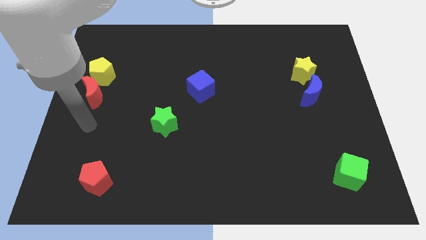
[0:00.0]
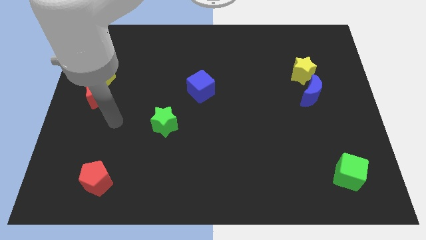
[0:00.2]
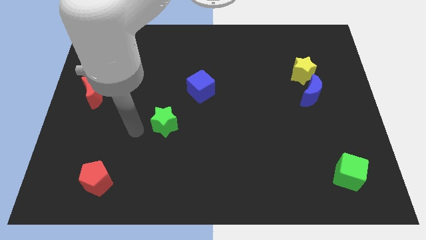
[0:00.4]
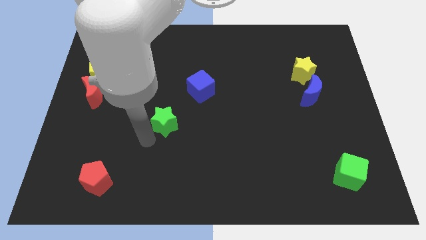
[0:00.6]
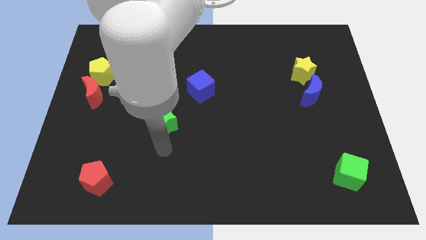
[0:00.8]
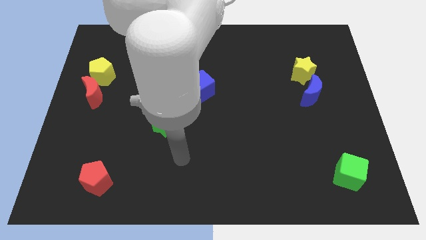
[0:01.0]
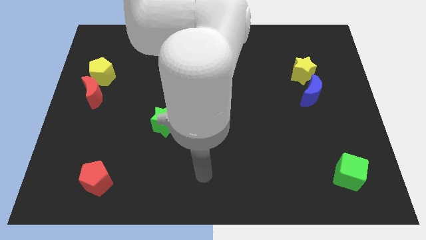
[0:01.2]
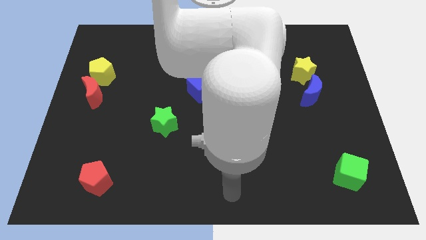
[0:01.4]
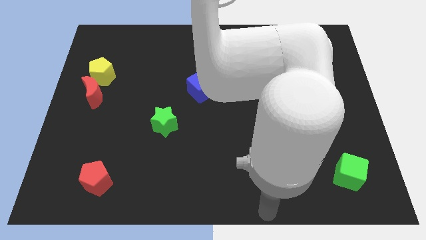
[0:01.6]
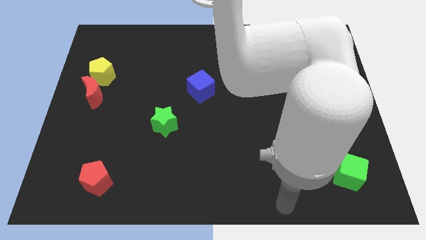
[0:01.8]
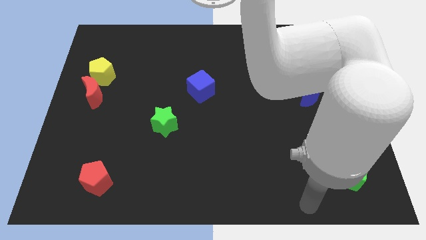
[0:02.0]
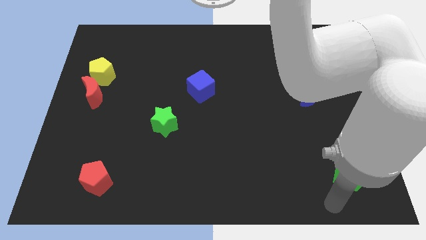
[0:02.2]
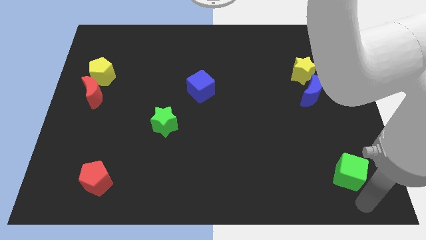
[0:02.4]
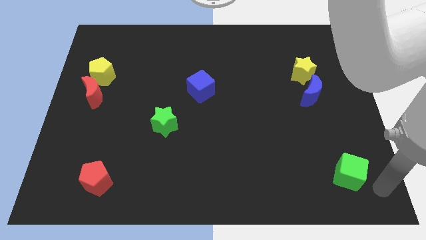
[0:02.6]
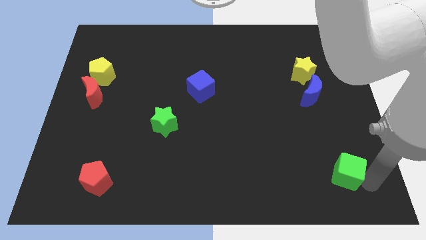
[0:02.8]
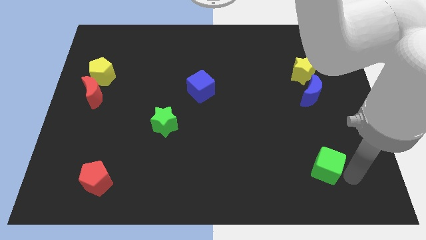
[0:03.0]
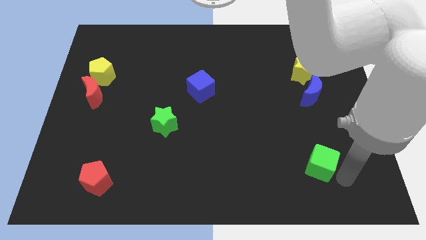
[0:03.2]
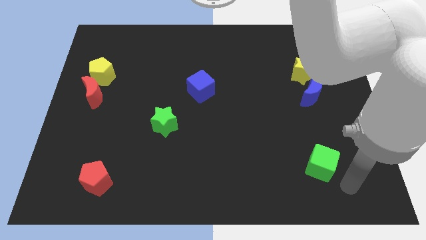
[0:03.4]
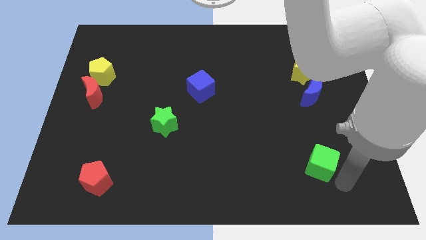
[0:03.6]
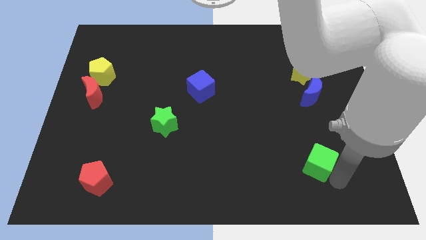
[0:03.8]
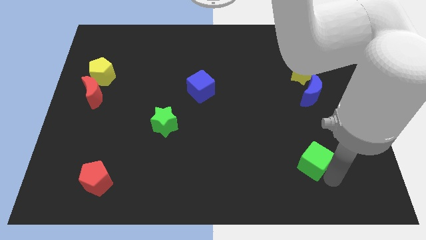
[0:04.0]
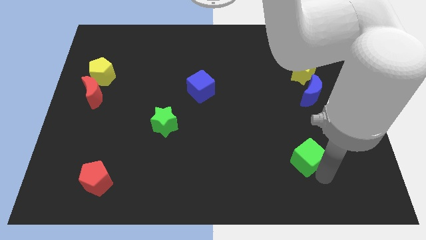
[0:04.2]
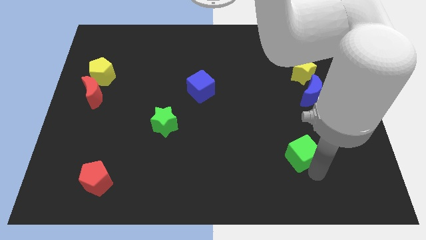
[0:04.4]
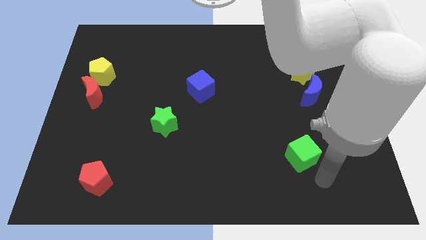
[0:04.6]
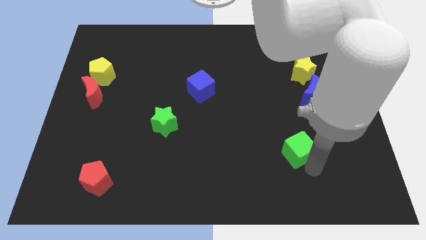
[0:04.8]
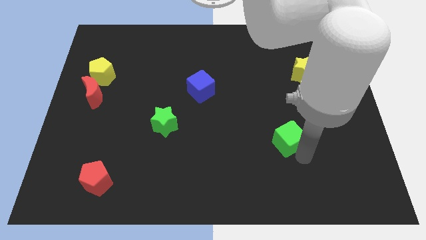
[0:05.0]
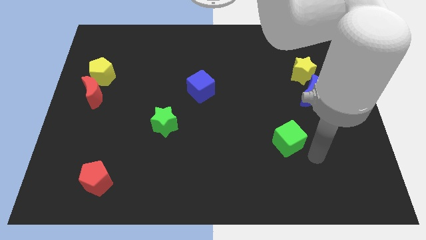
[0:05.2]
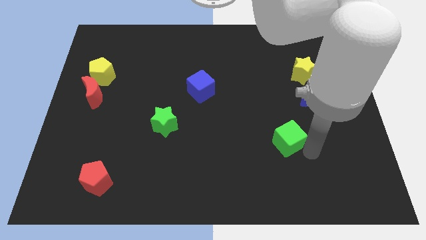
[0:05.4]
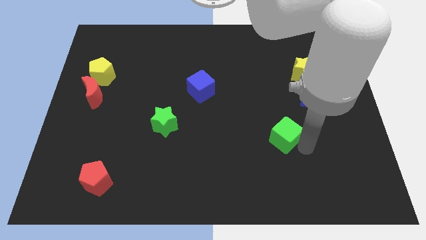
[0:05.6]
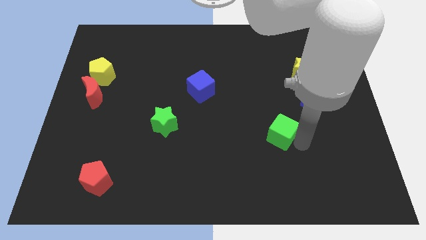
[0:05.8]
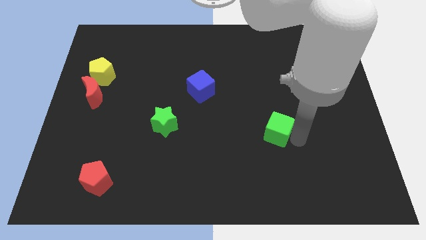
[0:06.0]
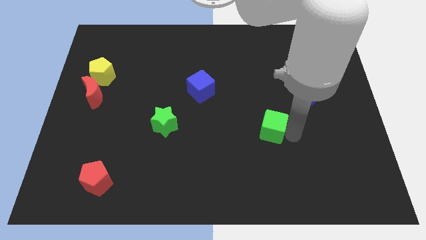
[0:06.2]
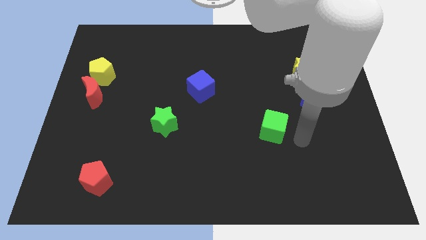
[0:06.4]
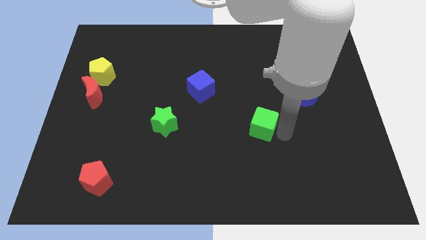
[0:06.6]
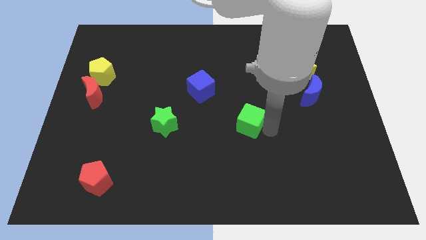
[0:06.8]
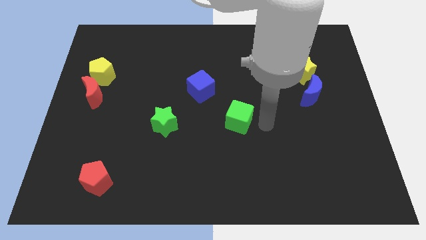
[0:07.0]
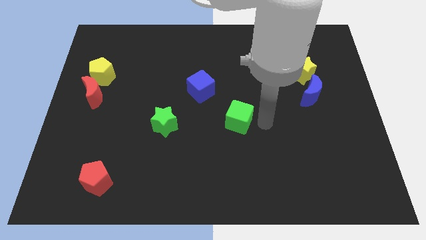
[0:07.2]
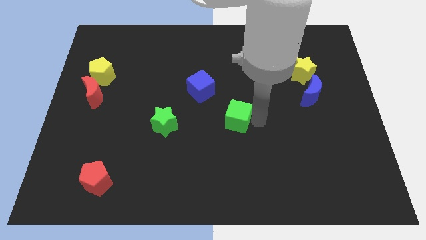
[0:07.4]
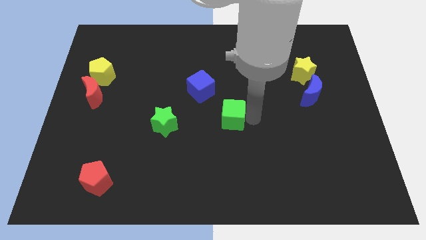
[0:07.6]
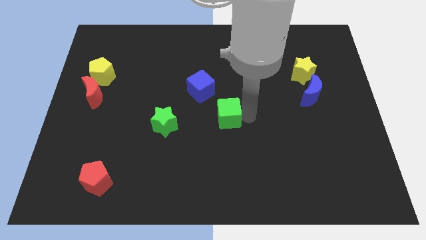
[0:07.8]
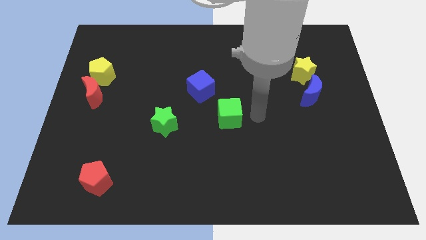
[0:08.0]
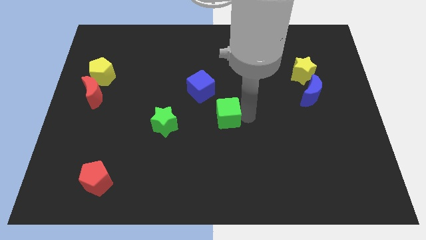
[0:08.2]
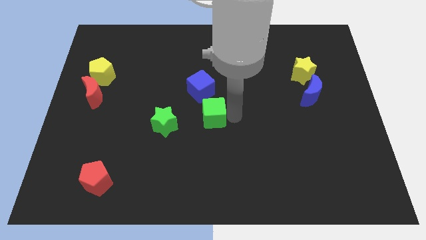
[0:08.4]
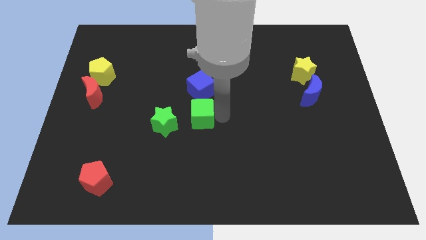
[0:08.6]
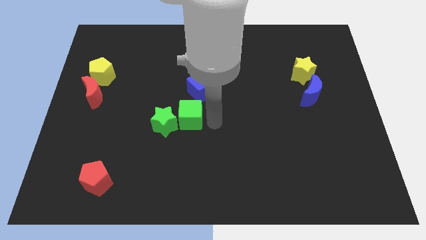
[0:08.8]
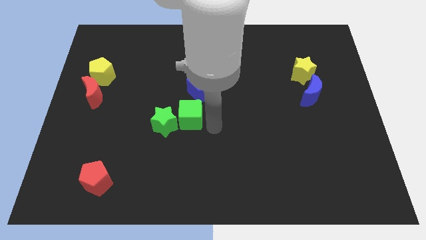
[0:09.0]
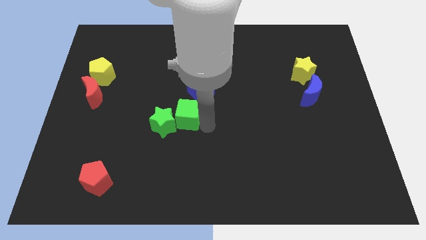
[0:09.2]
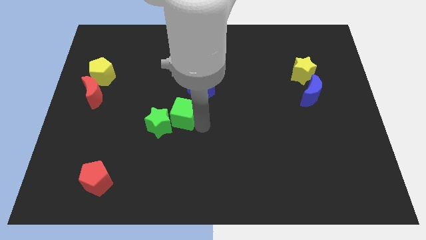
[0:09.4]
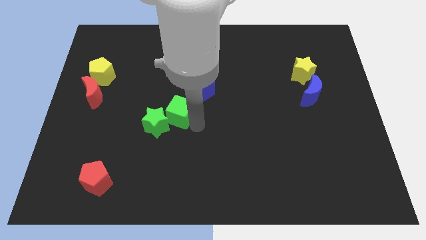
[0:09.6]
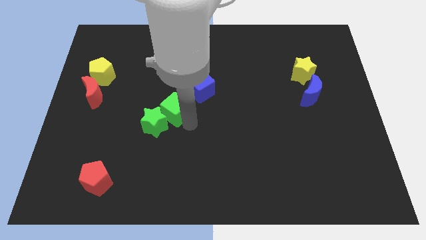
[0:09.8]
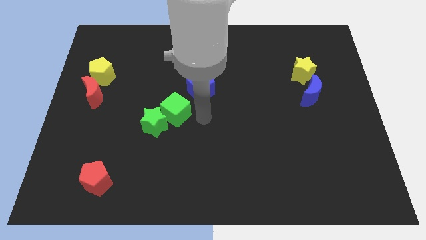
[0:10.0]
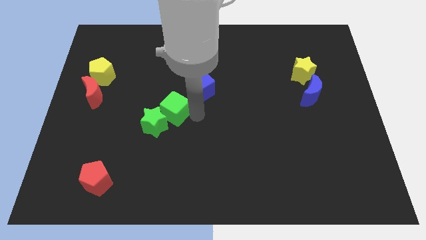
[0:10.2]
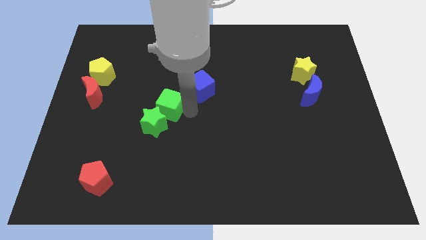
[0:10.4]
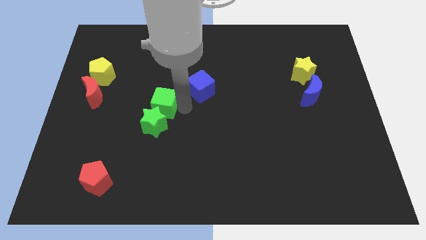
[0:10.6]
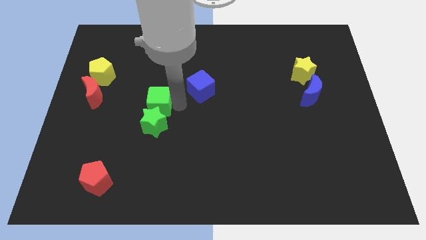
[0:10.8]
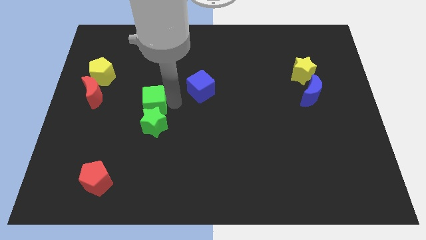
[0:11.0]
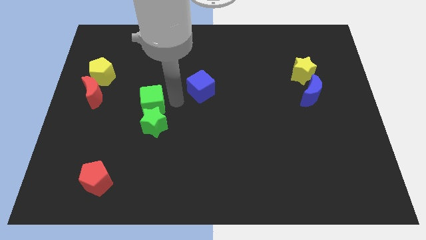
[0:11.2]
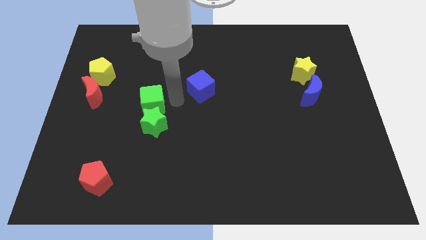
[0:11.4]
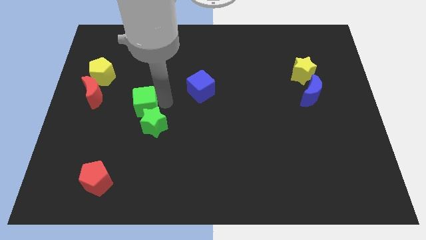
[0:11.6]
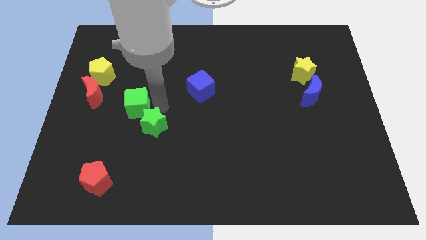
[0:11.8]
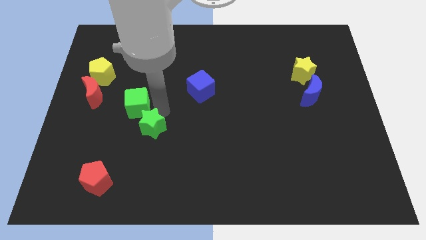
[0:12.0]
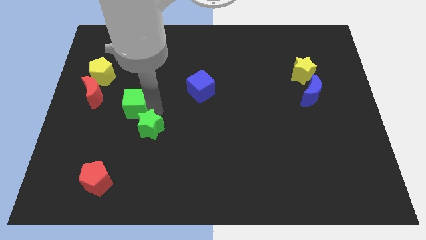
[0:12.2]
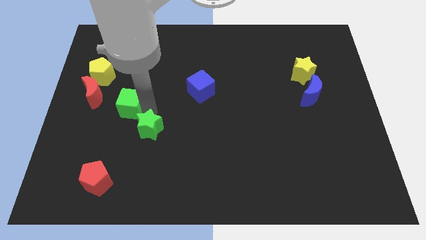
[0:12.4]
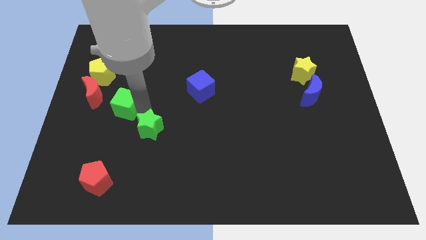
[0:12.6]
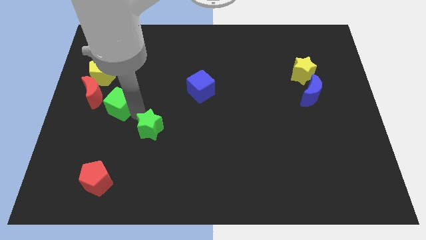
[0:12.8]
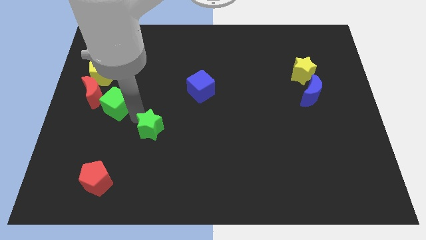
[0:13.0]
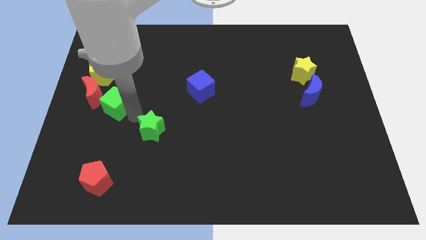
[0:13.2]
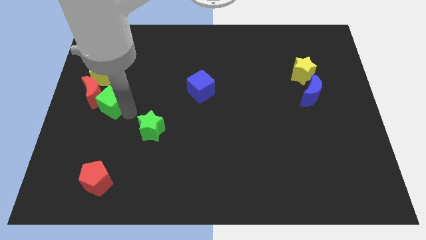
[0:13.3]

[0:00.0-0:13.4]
move the green cube next to the red moon

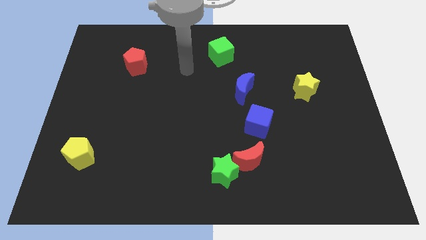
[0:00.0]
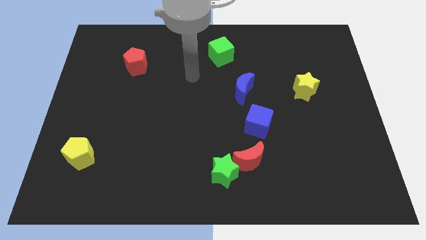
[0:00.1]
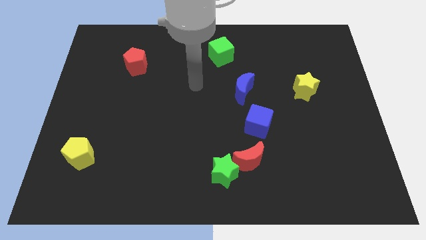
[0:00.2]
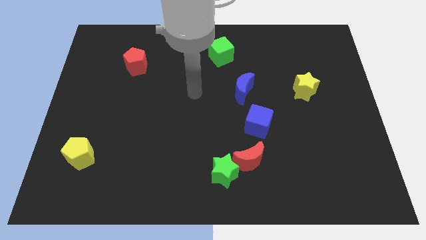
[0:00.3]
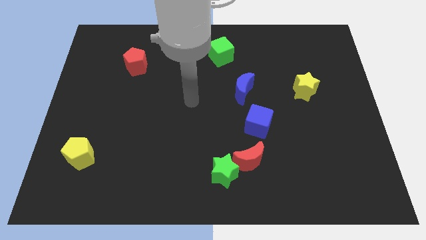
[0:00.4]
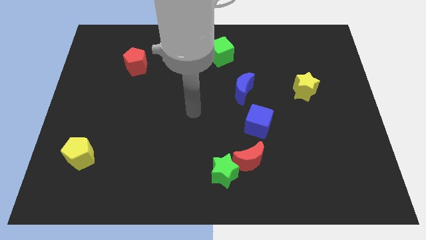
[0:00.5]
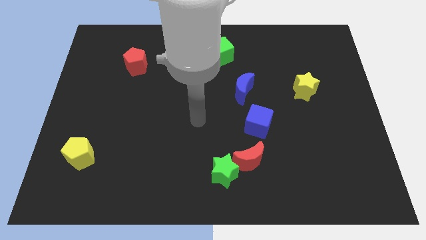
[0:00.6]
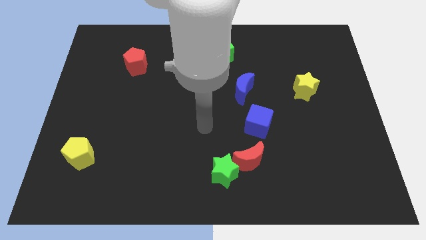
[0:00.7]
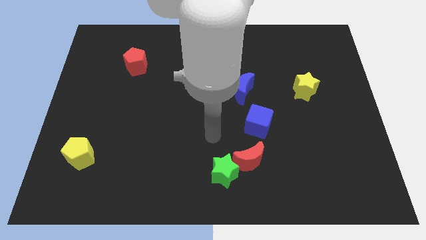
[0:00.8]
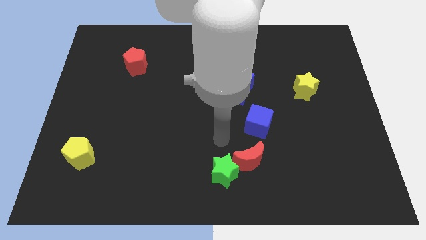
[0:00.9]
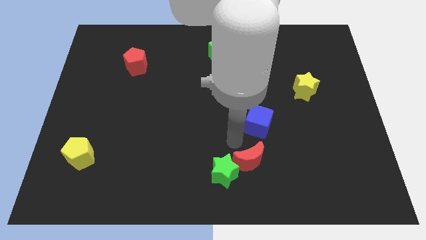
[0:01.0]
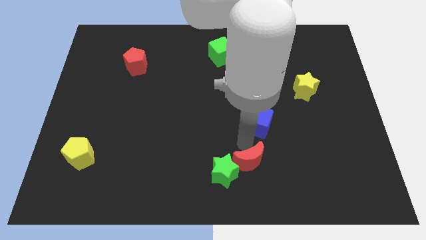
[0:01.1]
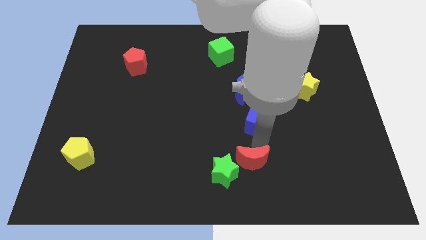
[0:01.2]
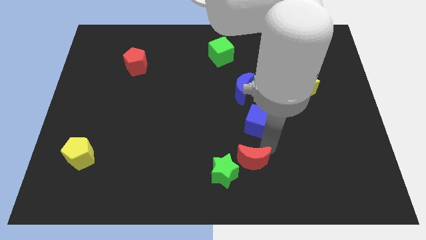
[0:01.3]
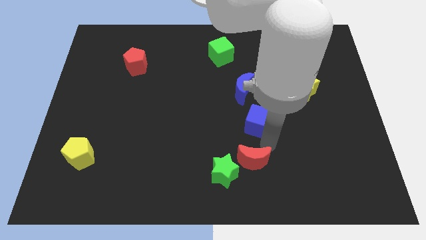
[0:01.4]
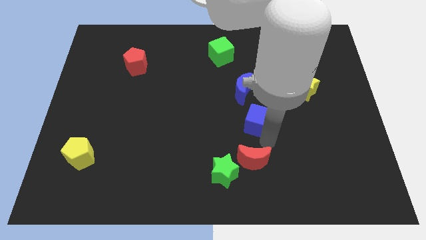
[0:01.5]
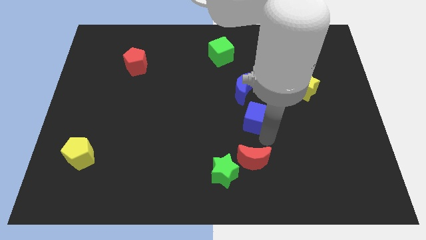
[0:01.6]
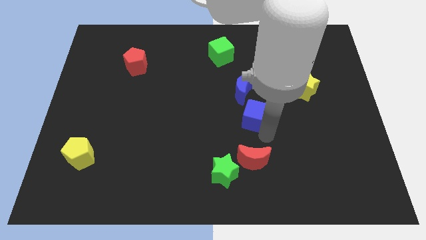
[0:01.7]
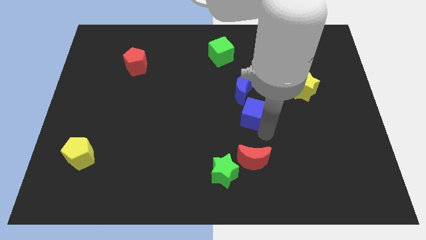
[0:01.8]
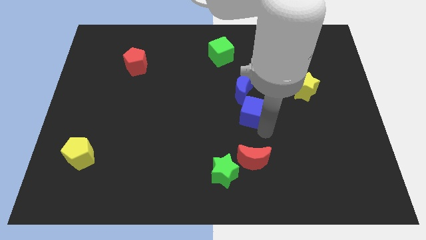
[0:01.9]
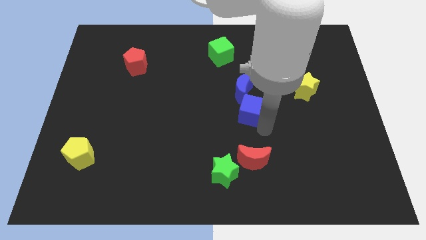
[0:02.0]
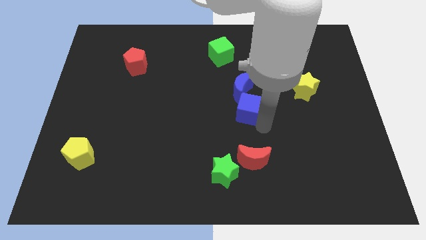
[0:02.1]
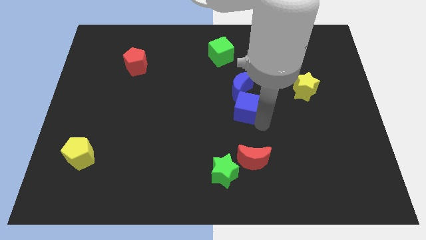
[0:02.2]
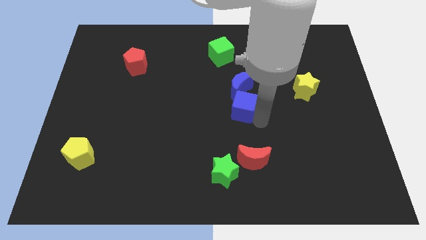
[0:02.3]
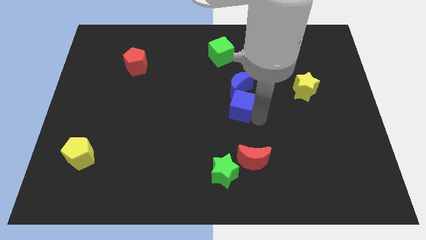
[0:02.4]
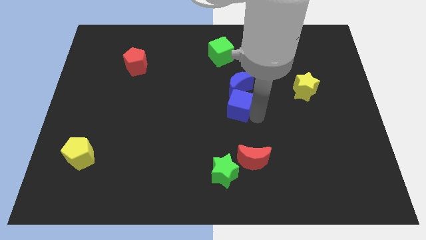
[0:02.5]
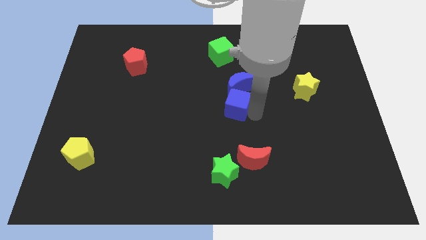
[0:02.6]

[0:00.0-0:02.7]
slide the blue cube to the blue moon
